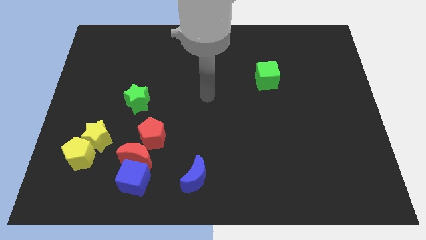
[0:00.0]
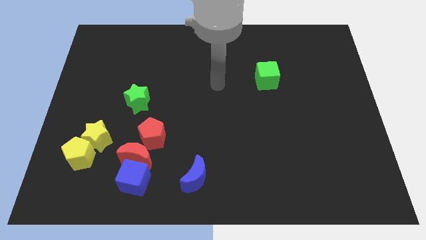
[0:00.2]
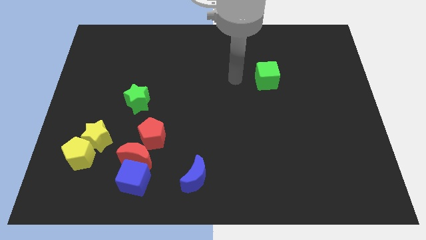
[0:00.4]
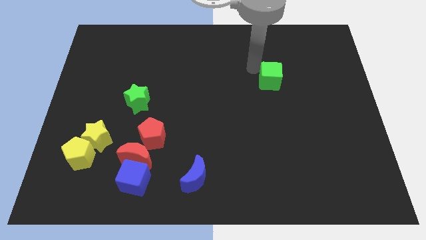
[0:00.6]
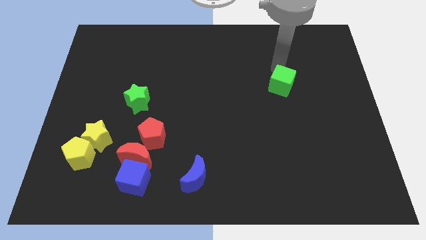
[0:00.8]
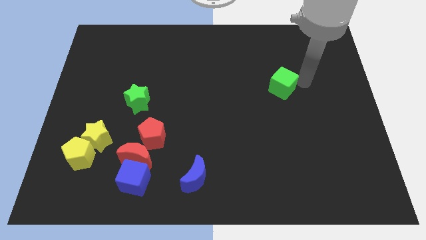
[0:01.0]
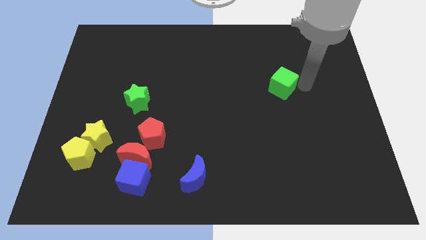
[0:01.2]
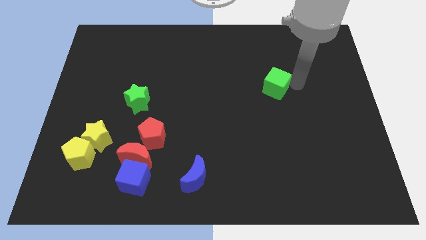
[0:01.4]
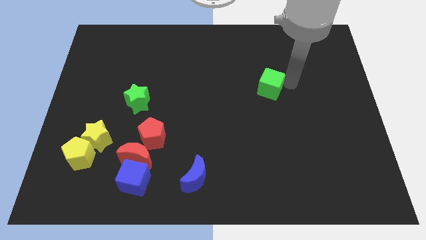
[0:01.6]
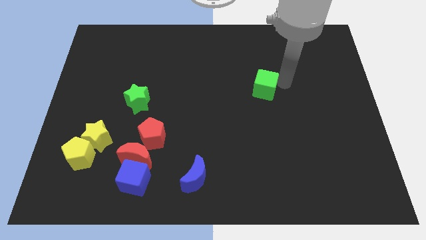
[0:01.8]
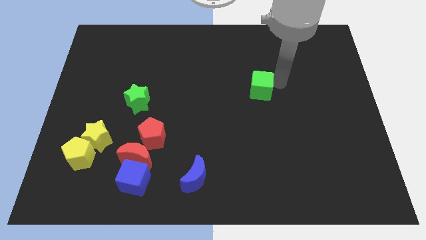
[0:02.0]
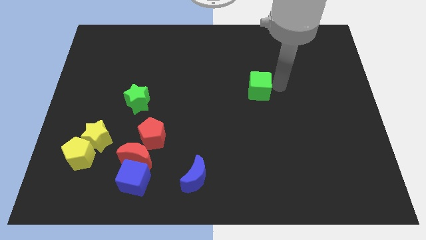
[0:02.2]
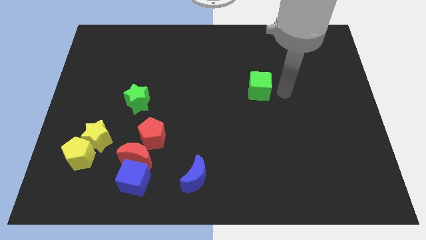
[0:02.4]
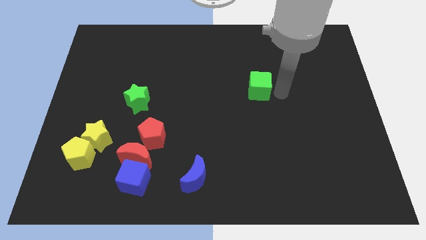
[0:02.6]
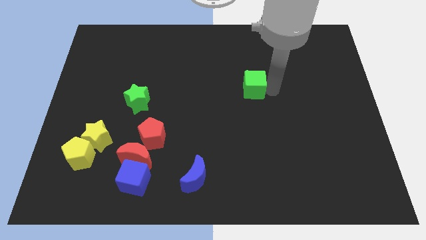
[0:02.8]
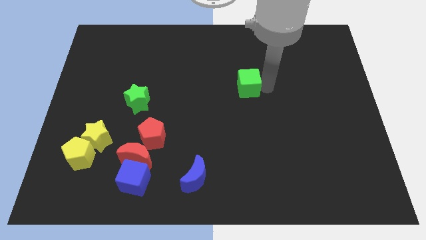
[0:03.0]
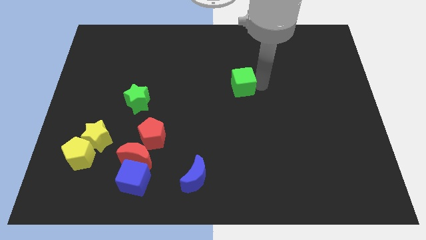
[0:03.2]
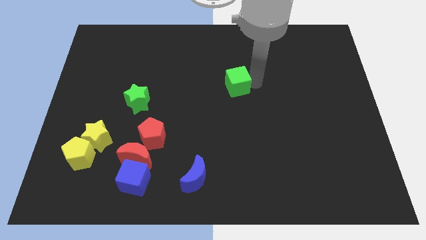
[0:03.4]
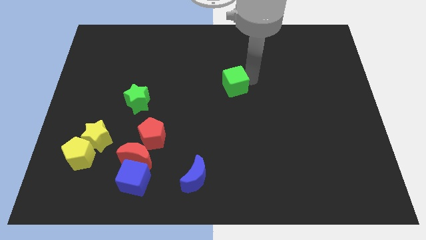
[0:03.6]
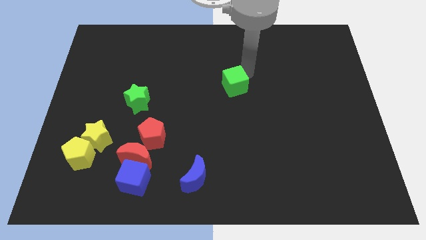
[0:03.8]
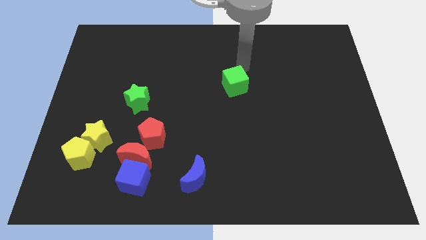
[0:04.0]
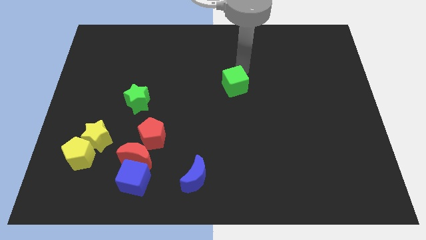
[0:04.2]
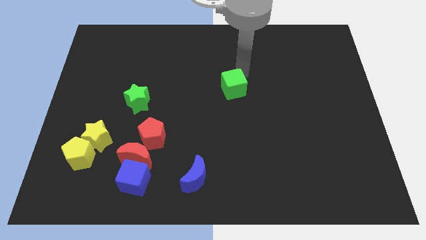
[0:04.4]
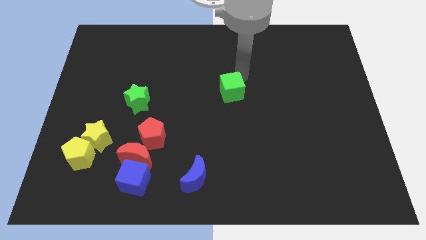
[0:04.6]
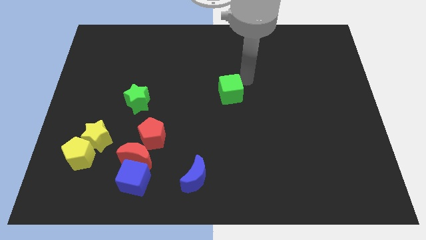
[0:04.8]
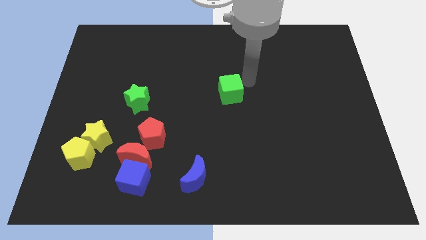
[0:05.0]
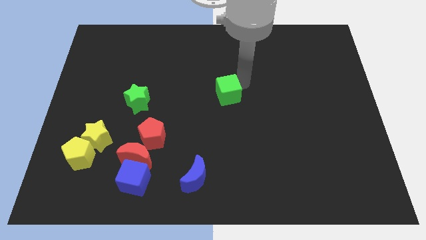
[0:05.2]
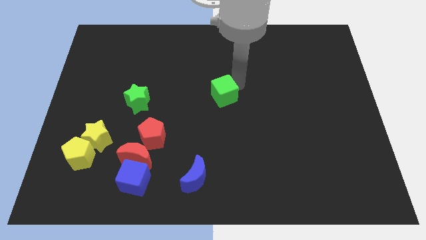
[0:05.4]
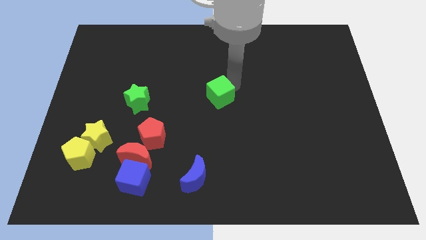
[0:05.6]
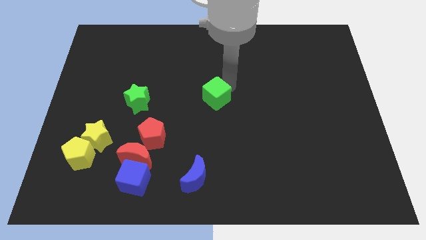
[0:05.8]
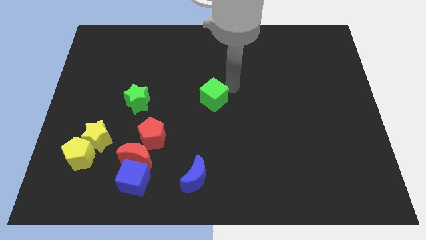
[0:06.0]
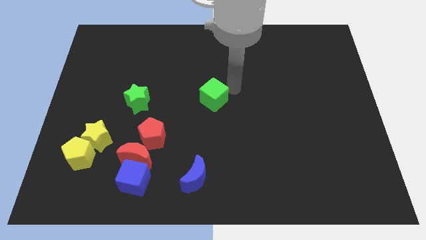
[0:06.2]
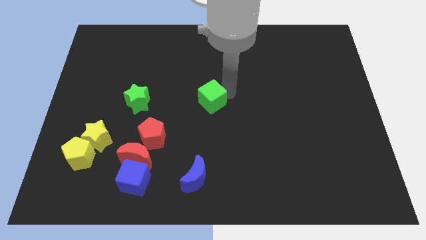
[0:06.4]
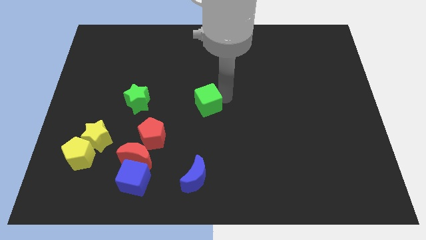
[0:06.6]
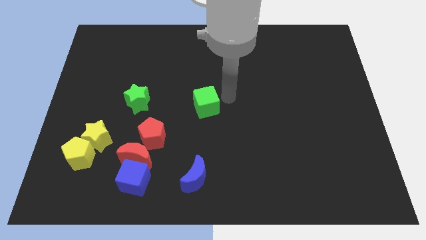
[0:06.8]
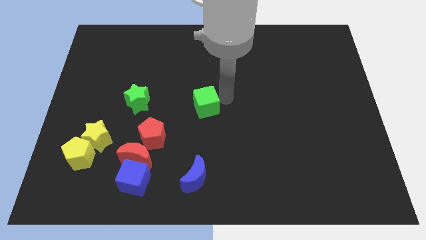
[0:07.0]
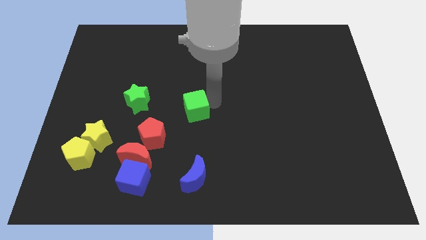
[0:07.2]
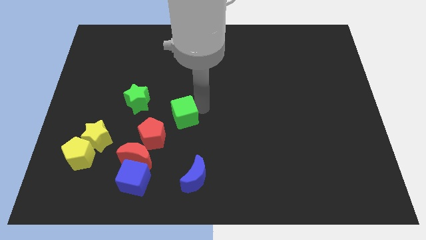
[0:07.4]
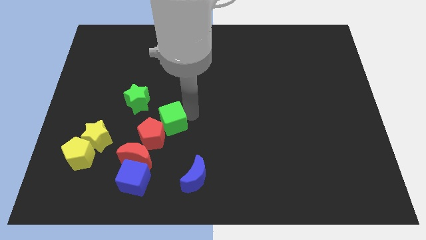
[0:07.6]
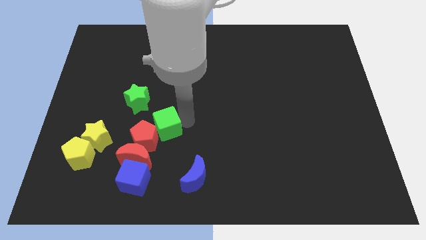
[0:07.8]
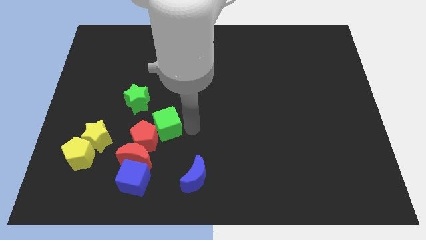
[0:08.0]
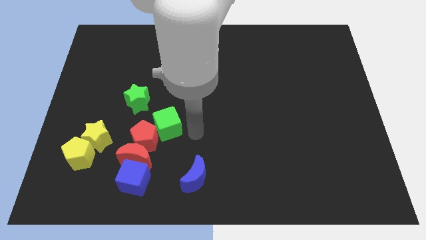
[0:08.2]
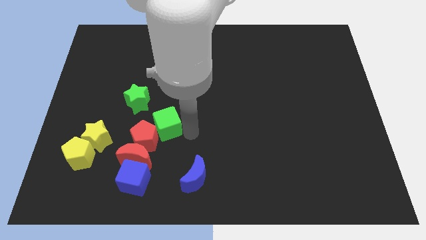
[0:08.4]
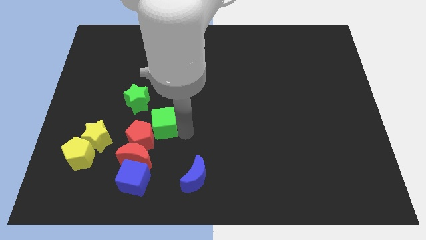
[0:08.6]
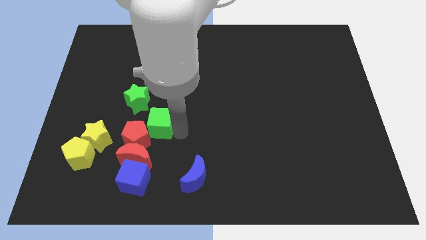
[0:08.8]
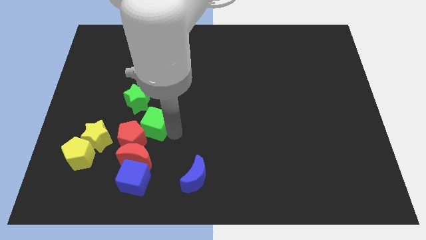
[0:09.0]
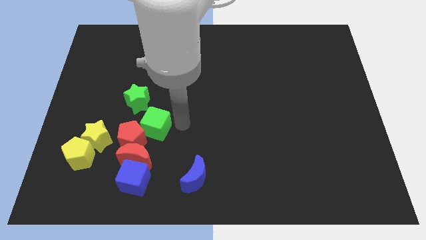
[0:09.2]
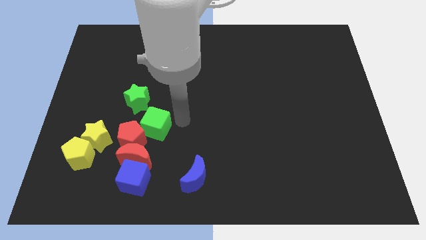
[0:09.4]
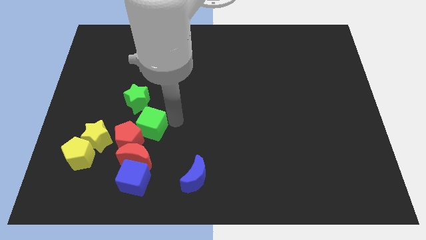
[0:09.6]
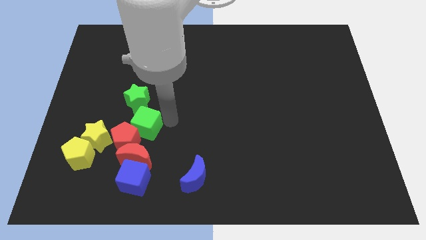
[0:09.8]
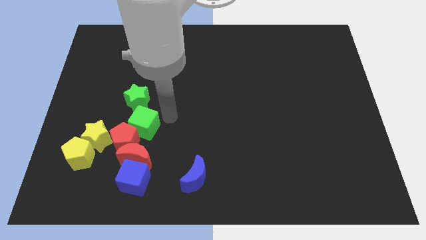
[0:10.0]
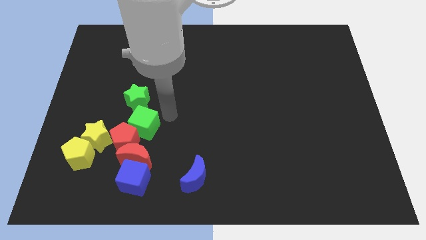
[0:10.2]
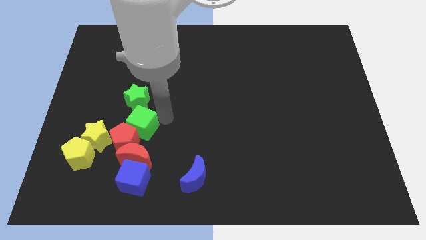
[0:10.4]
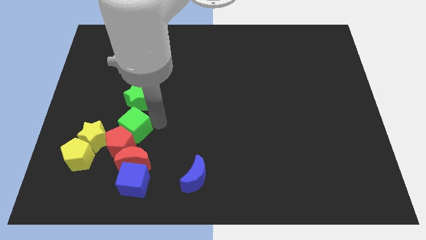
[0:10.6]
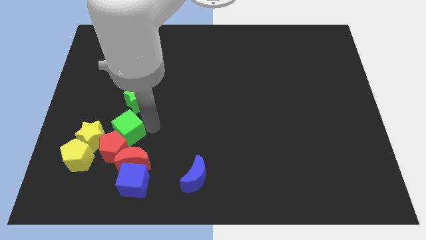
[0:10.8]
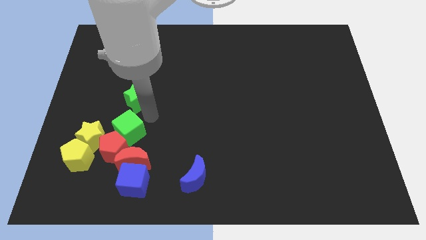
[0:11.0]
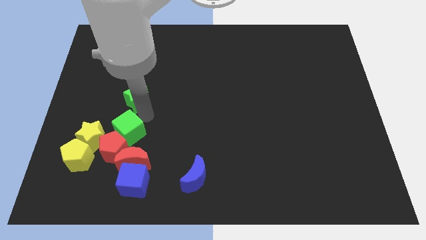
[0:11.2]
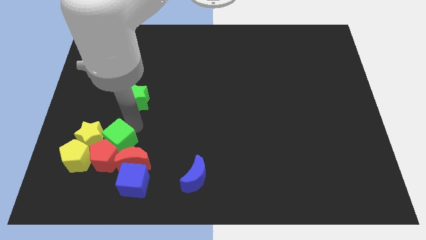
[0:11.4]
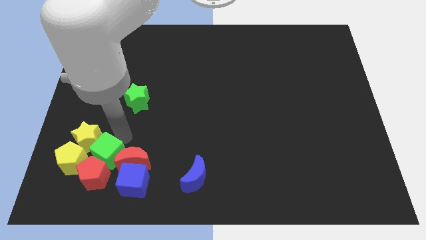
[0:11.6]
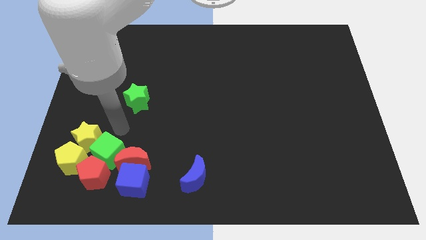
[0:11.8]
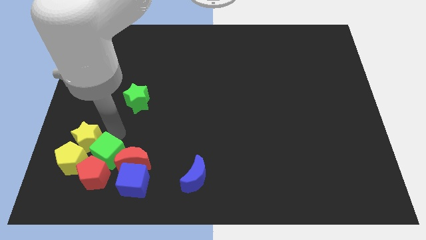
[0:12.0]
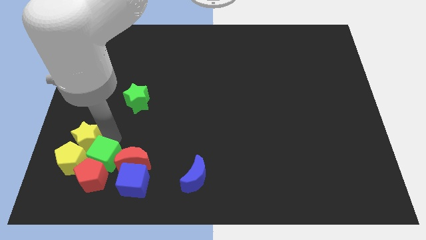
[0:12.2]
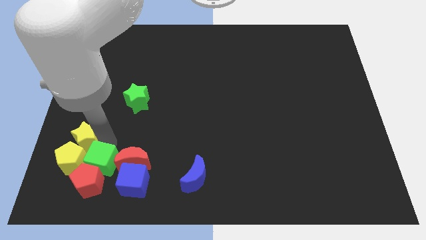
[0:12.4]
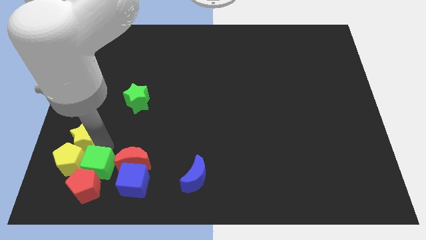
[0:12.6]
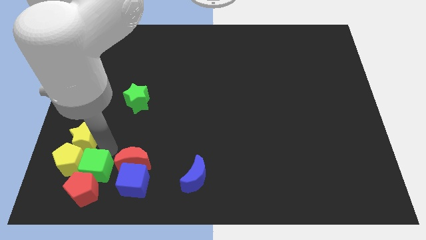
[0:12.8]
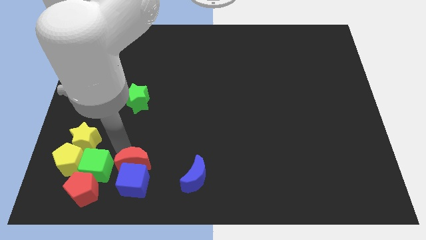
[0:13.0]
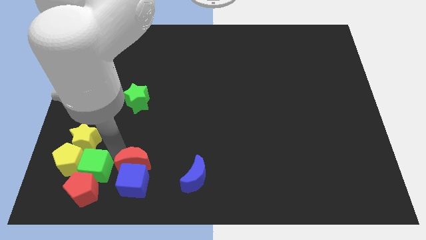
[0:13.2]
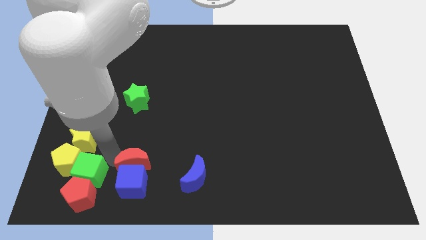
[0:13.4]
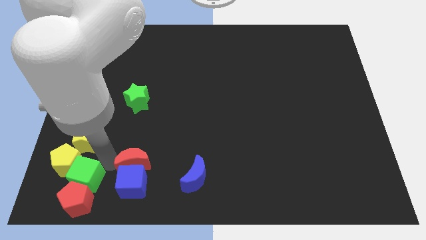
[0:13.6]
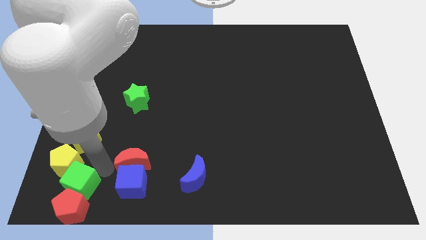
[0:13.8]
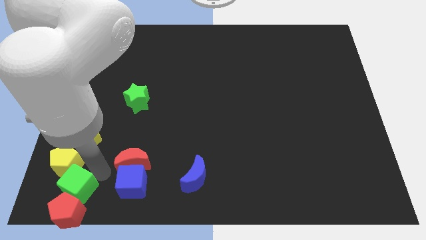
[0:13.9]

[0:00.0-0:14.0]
push the green cube to the bottom left

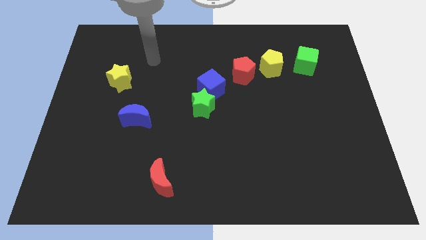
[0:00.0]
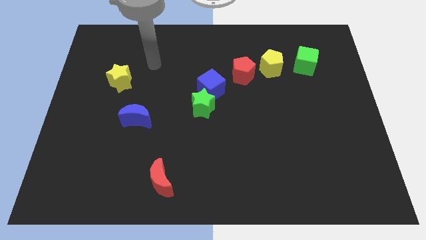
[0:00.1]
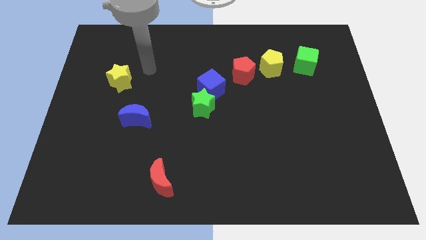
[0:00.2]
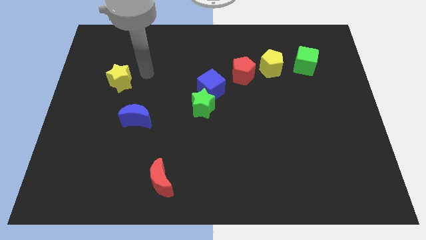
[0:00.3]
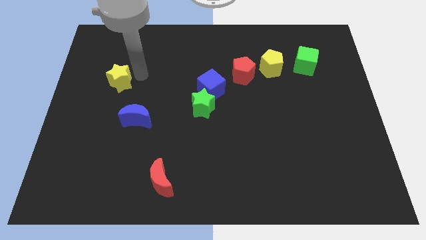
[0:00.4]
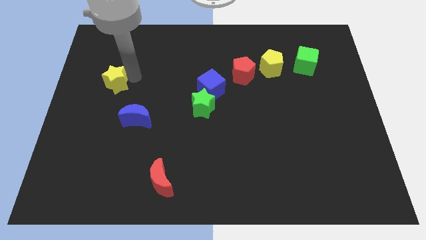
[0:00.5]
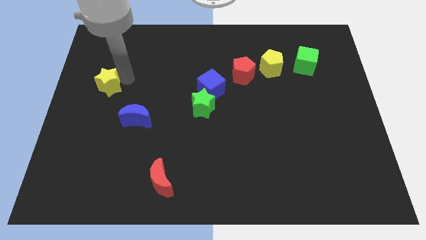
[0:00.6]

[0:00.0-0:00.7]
push the yellow star to the center left
